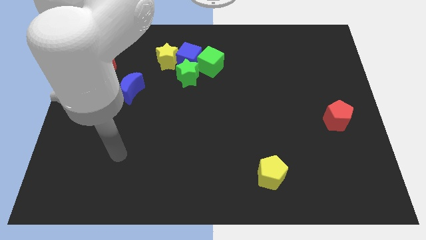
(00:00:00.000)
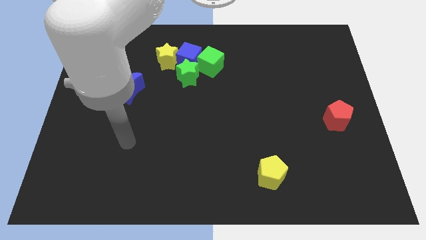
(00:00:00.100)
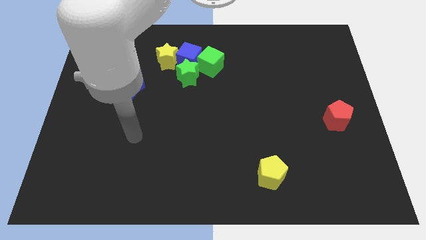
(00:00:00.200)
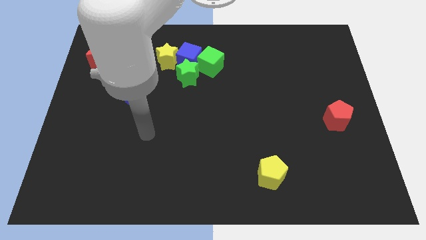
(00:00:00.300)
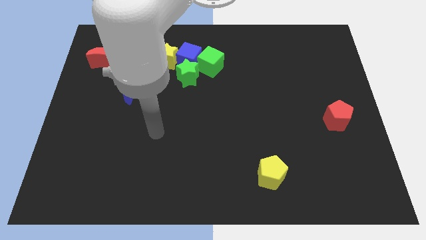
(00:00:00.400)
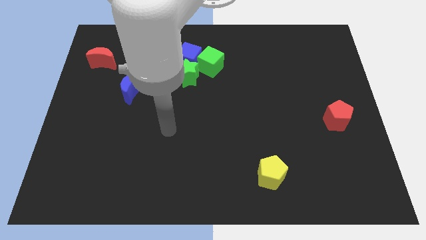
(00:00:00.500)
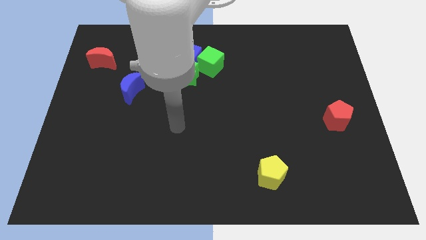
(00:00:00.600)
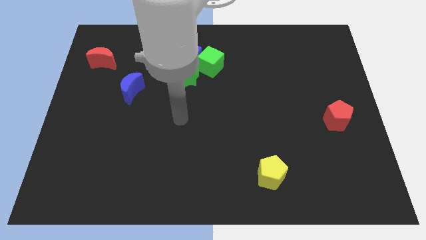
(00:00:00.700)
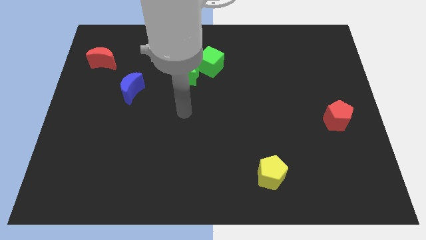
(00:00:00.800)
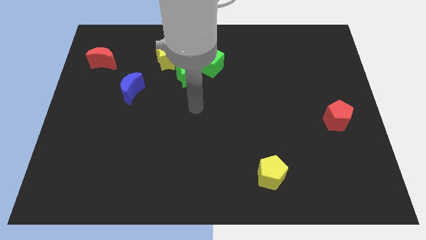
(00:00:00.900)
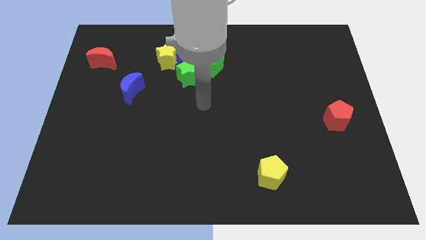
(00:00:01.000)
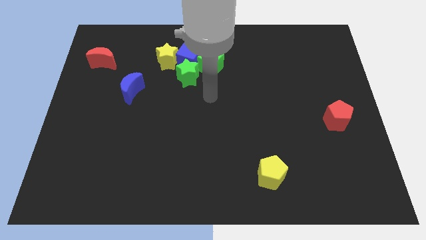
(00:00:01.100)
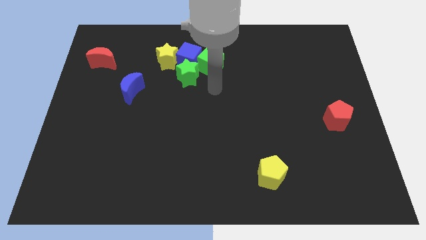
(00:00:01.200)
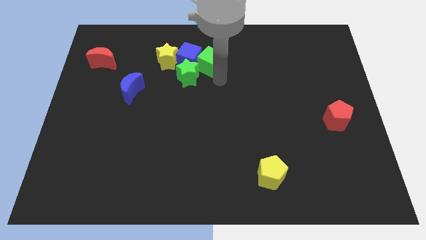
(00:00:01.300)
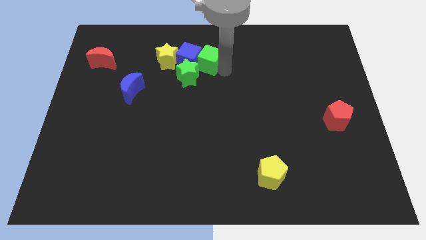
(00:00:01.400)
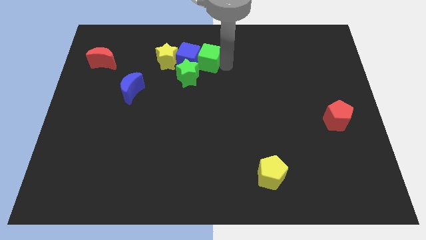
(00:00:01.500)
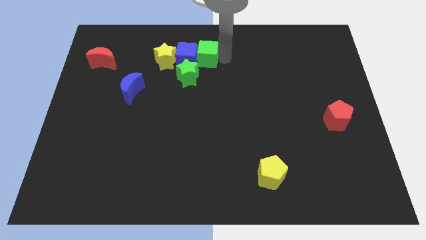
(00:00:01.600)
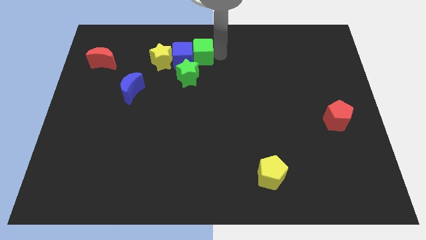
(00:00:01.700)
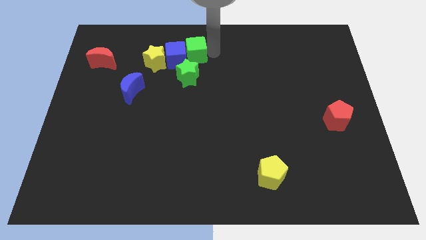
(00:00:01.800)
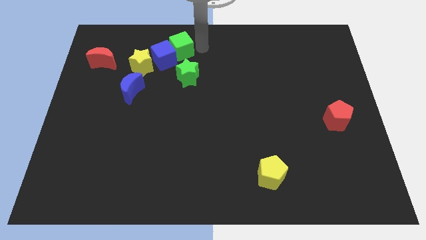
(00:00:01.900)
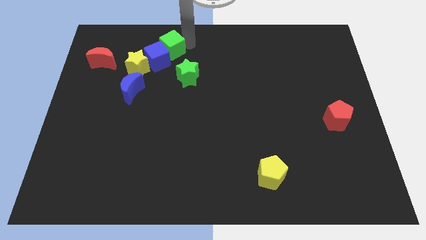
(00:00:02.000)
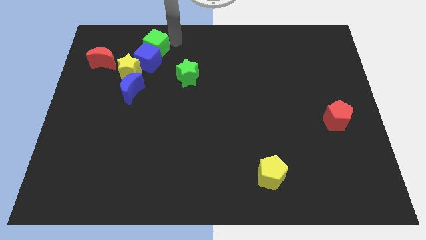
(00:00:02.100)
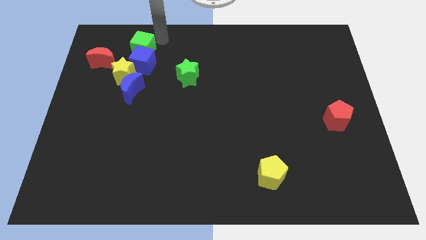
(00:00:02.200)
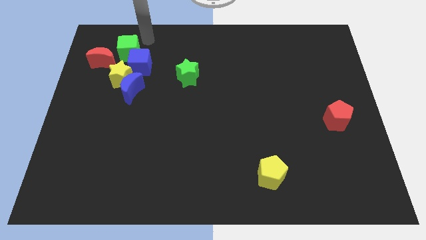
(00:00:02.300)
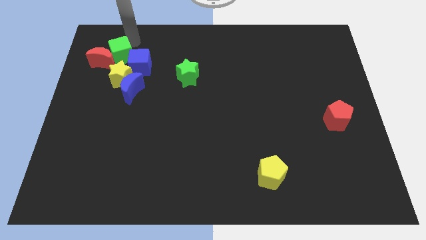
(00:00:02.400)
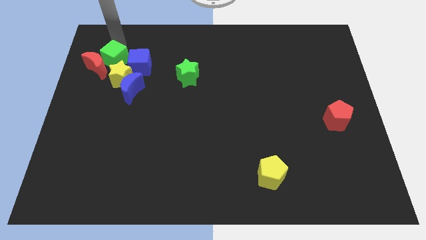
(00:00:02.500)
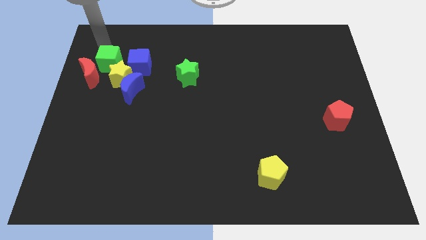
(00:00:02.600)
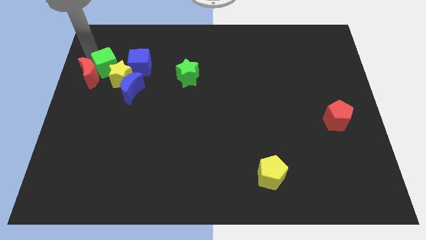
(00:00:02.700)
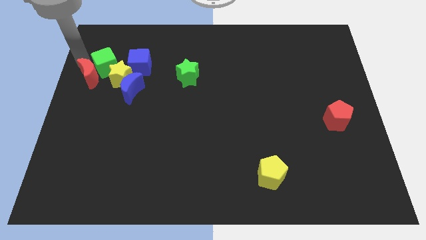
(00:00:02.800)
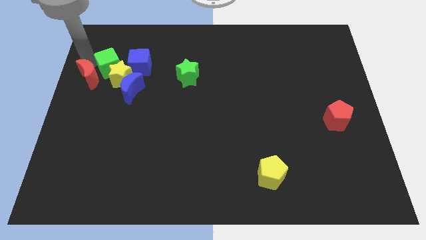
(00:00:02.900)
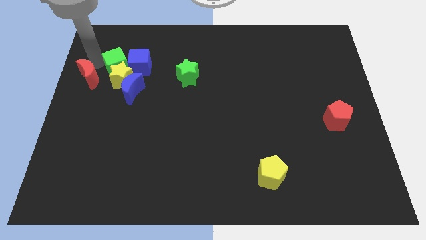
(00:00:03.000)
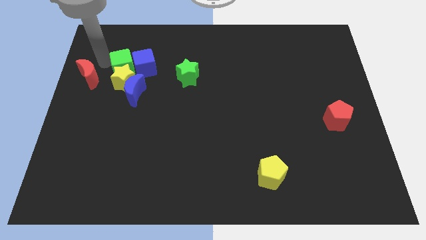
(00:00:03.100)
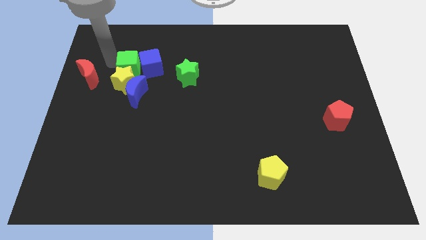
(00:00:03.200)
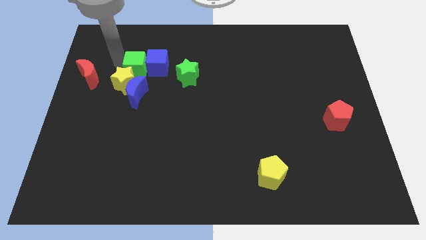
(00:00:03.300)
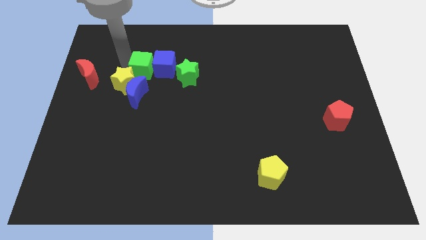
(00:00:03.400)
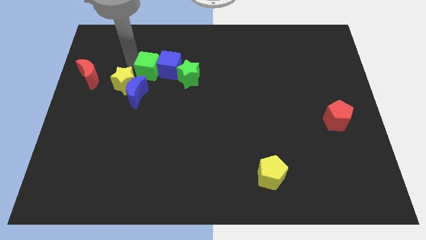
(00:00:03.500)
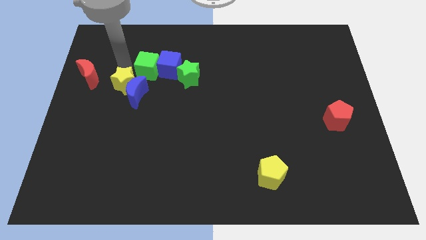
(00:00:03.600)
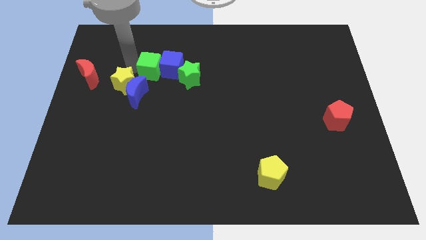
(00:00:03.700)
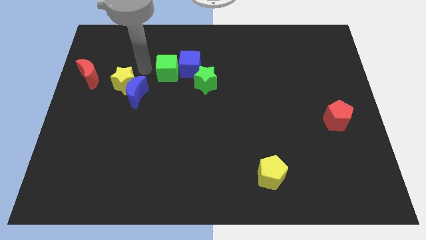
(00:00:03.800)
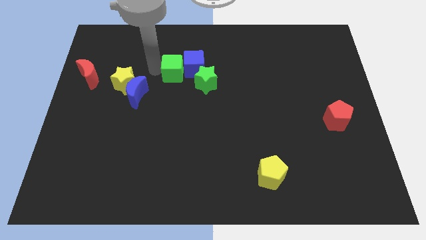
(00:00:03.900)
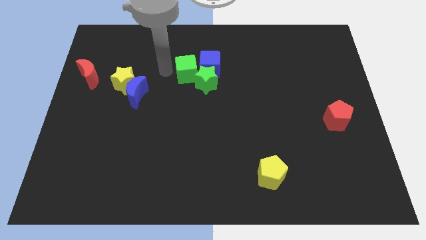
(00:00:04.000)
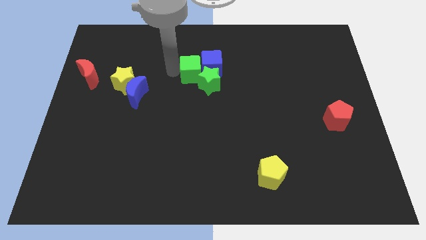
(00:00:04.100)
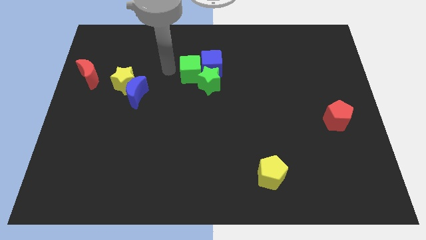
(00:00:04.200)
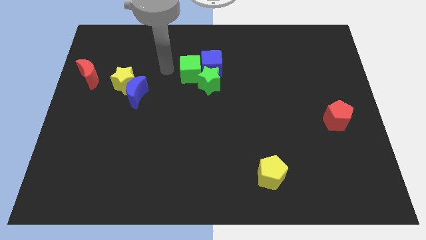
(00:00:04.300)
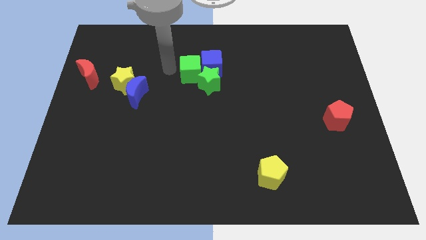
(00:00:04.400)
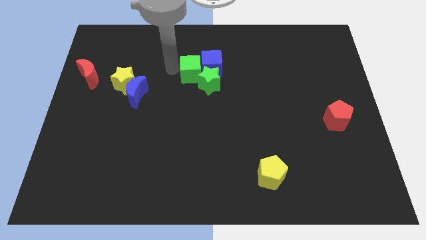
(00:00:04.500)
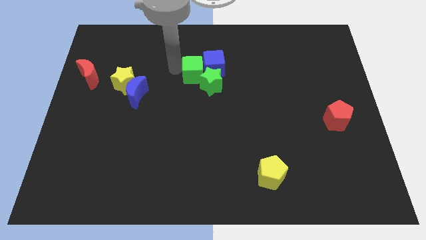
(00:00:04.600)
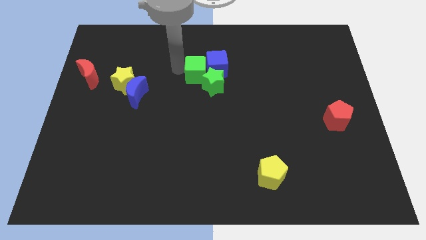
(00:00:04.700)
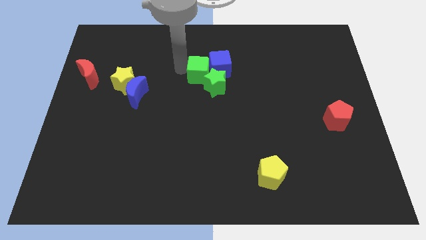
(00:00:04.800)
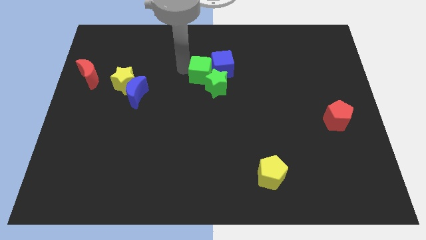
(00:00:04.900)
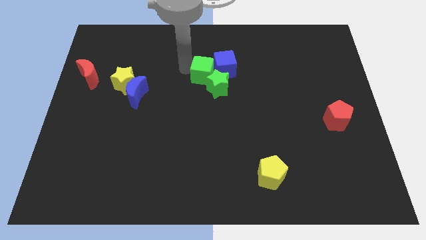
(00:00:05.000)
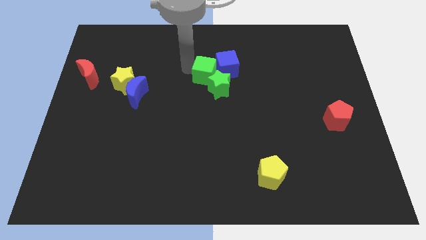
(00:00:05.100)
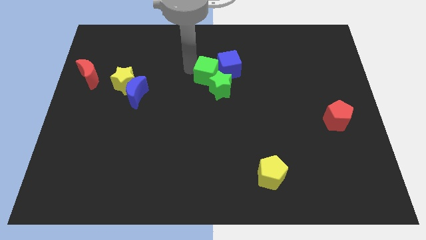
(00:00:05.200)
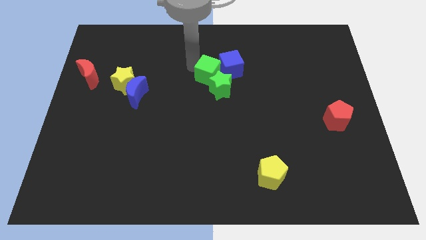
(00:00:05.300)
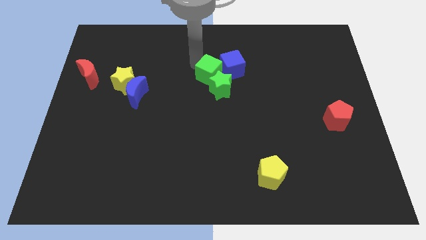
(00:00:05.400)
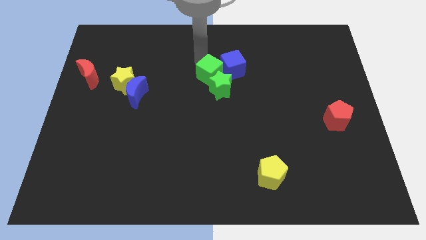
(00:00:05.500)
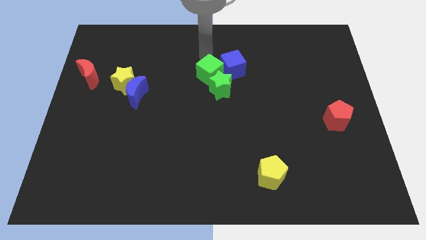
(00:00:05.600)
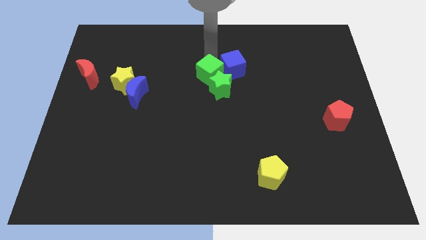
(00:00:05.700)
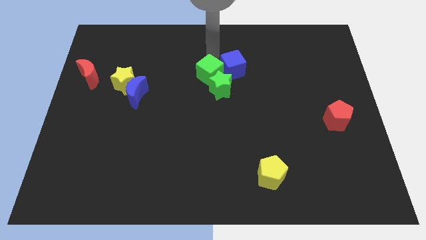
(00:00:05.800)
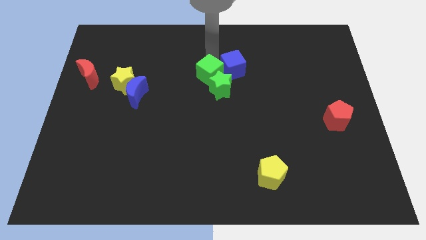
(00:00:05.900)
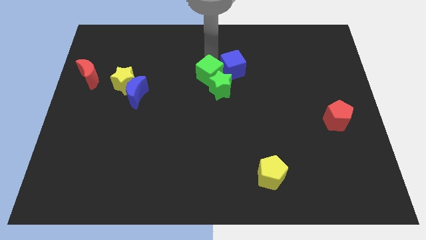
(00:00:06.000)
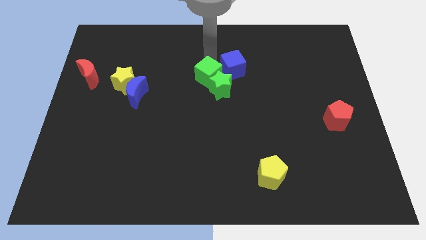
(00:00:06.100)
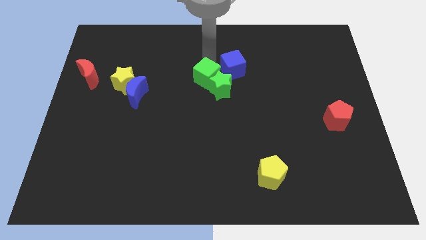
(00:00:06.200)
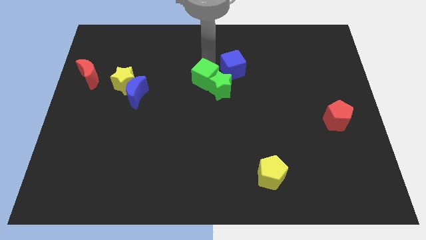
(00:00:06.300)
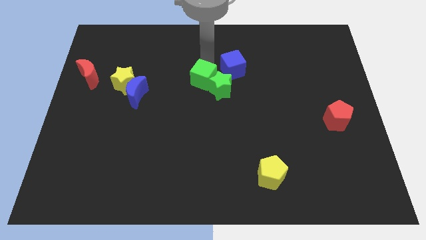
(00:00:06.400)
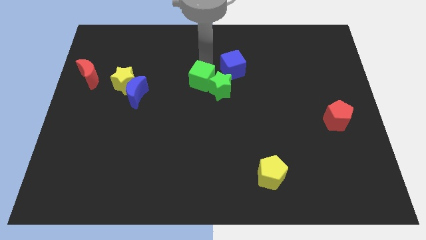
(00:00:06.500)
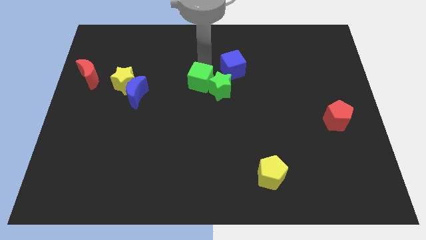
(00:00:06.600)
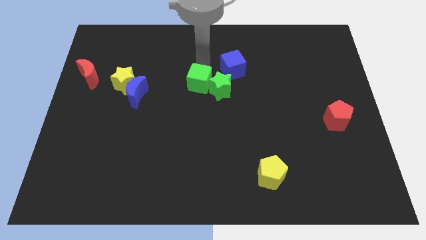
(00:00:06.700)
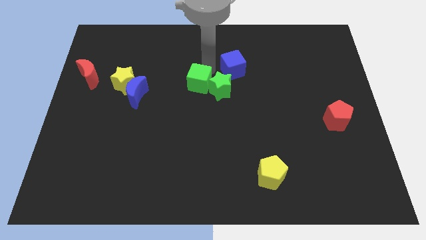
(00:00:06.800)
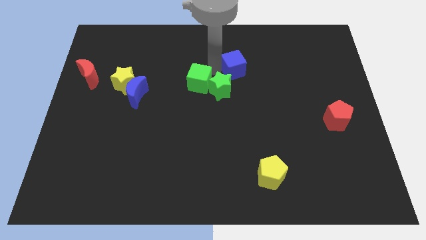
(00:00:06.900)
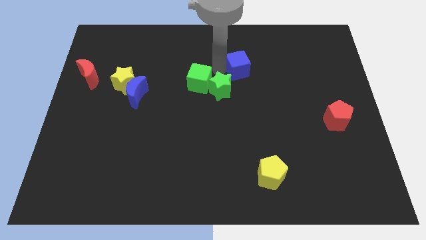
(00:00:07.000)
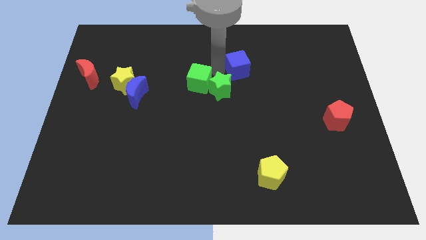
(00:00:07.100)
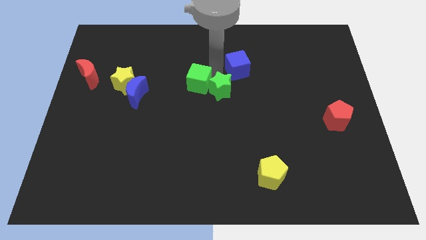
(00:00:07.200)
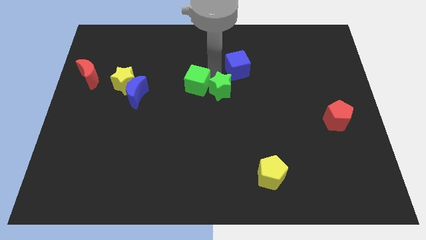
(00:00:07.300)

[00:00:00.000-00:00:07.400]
push the green cube to the right side of the blue moon
